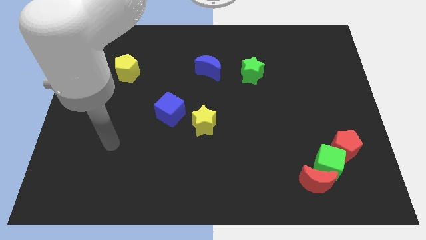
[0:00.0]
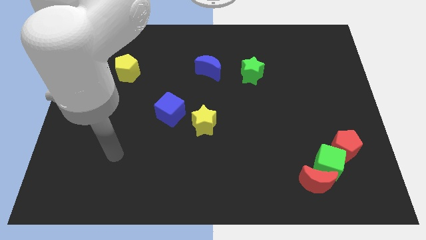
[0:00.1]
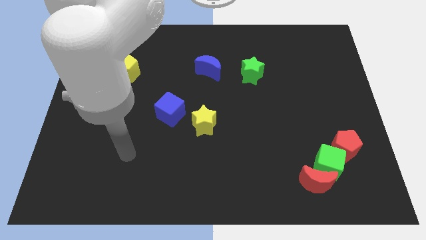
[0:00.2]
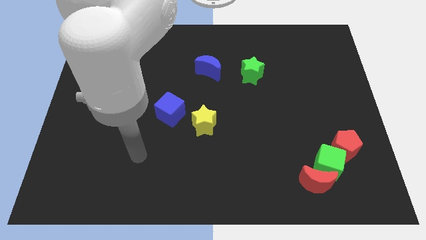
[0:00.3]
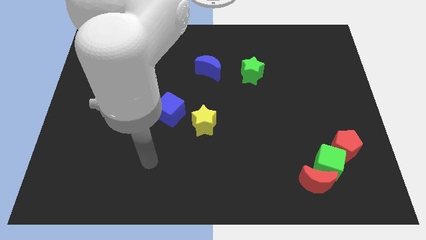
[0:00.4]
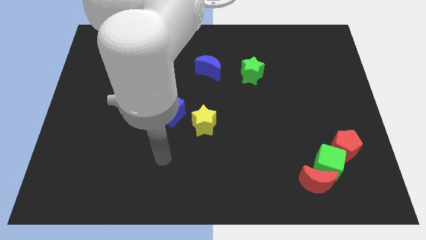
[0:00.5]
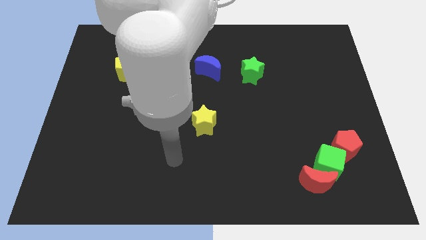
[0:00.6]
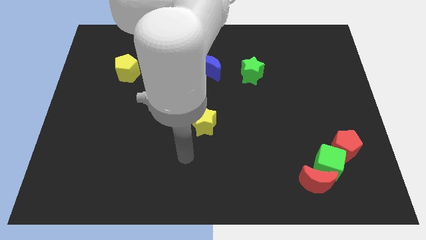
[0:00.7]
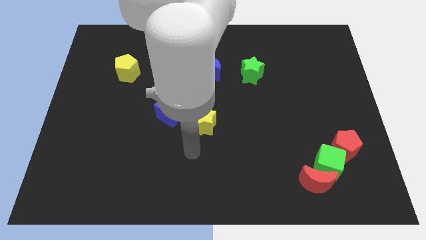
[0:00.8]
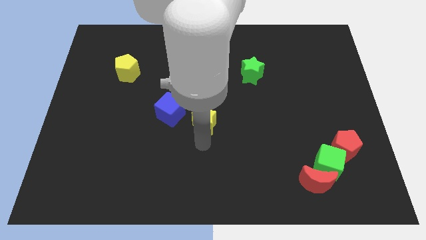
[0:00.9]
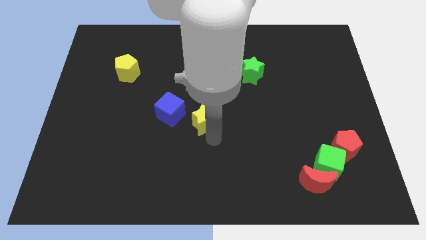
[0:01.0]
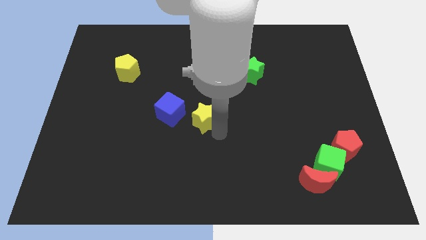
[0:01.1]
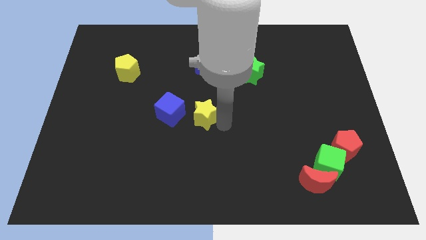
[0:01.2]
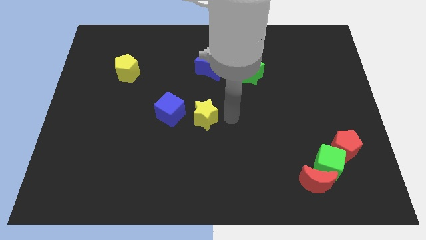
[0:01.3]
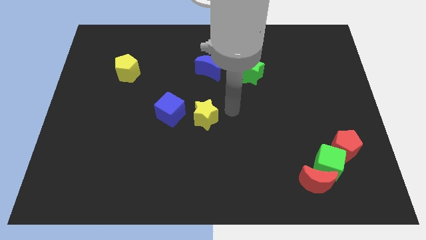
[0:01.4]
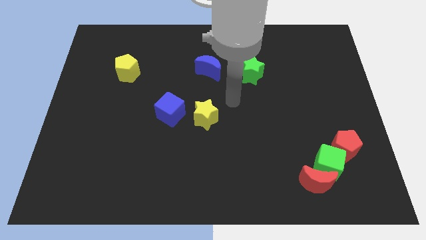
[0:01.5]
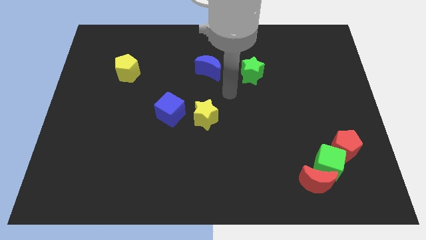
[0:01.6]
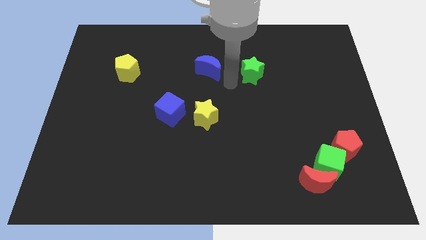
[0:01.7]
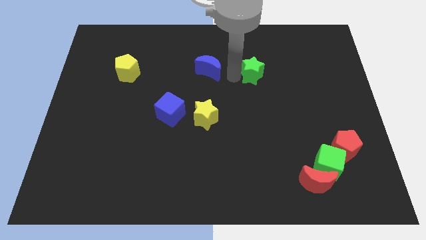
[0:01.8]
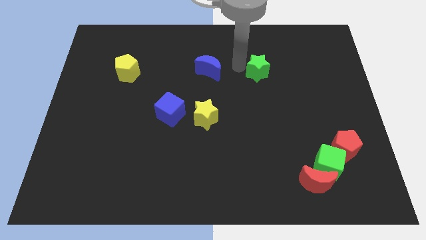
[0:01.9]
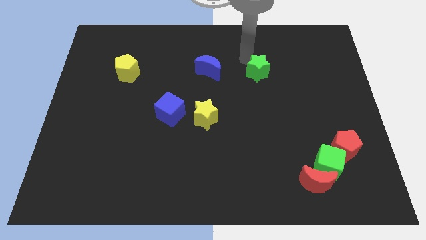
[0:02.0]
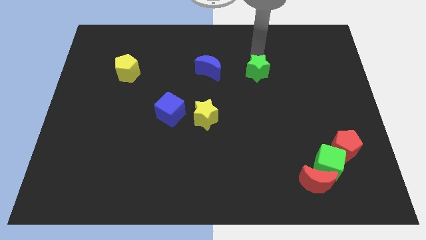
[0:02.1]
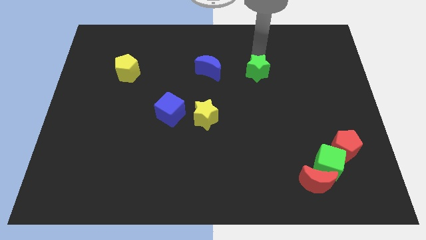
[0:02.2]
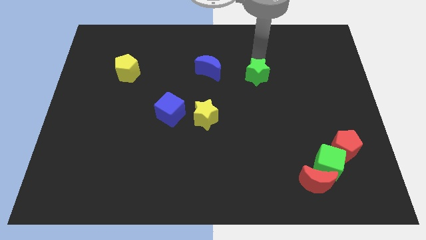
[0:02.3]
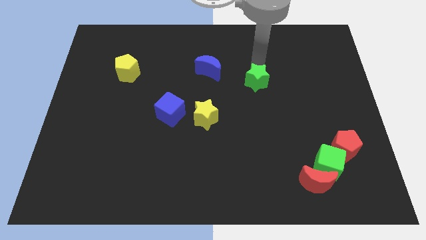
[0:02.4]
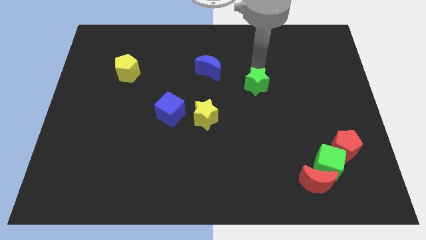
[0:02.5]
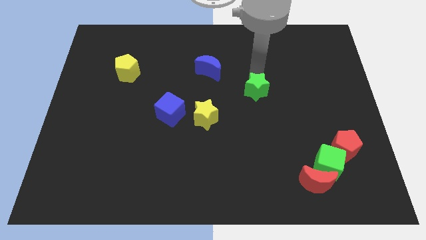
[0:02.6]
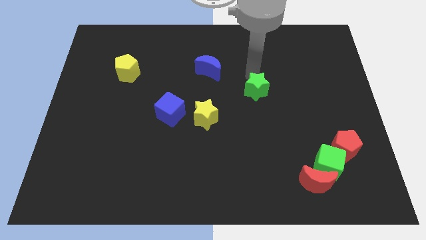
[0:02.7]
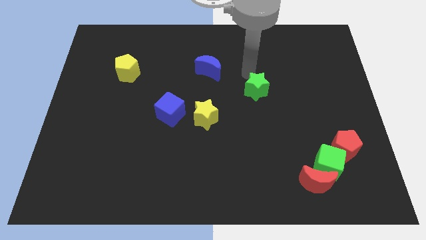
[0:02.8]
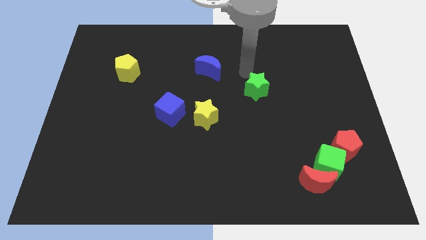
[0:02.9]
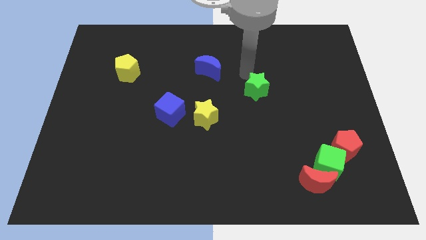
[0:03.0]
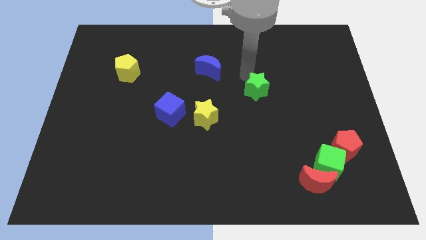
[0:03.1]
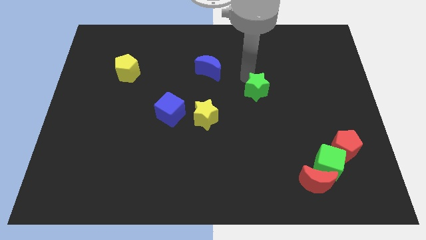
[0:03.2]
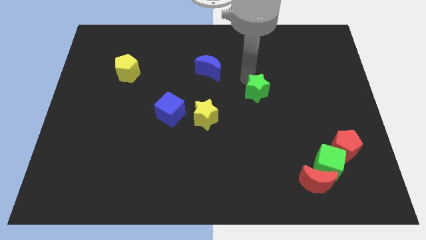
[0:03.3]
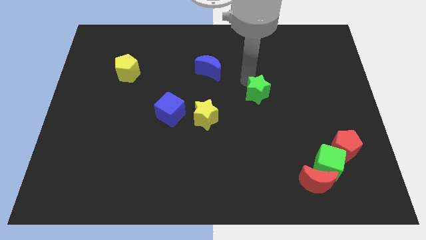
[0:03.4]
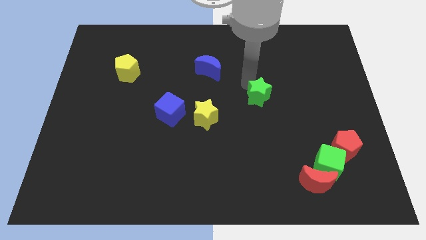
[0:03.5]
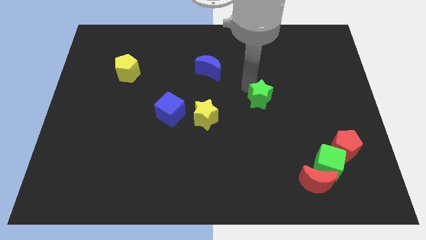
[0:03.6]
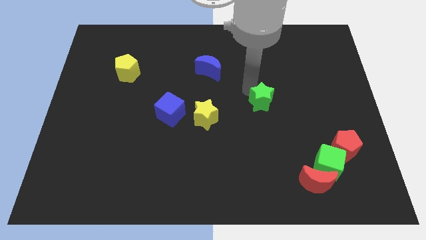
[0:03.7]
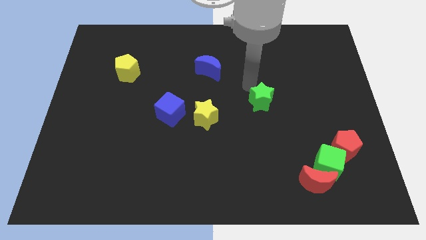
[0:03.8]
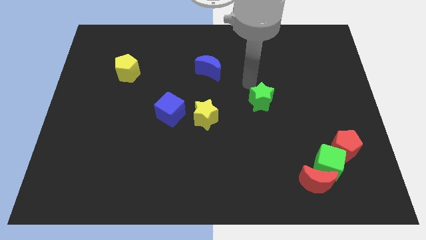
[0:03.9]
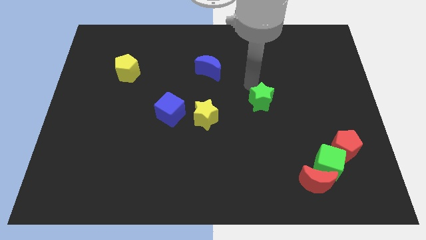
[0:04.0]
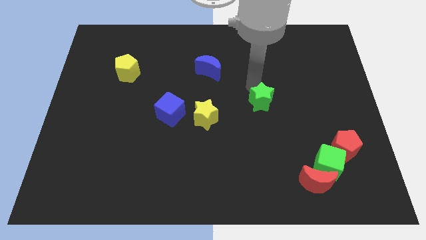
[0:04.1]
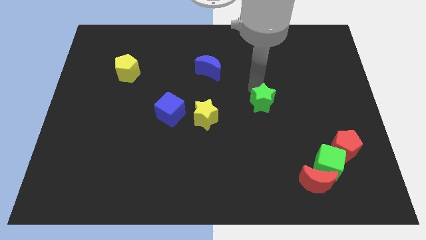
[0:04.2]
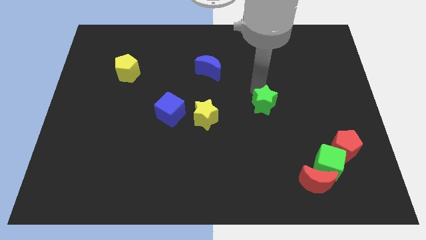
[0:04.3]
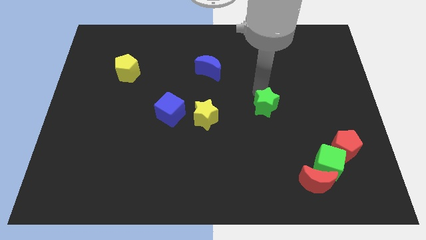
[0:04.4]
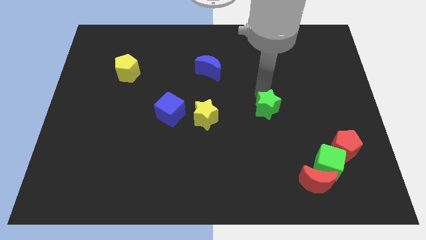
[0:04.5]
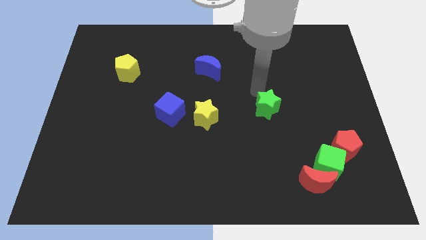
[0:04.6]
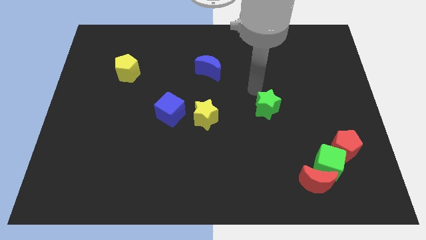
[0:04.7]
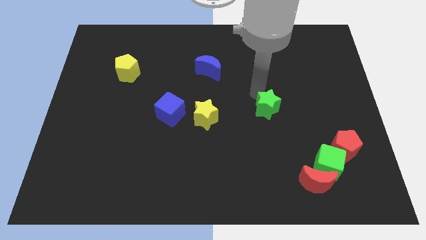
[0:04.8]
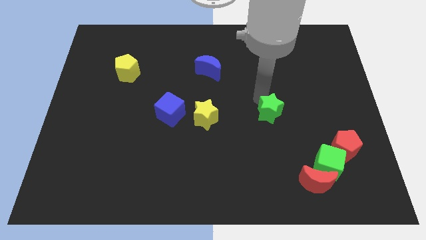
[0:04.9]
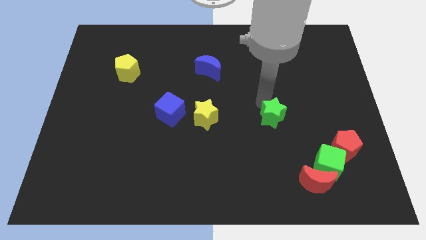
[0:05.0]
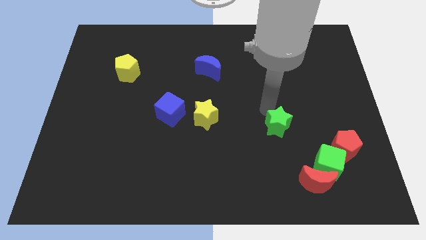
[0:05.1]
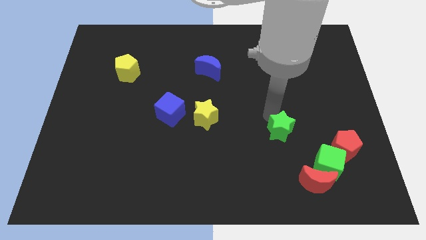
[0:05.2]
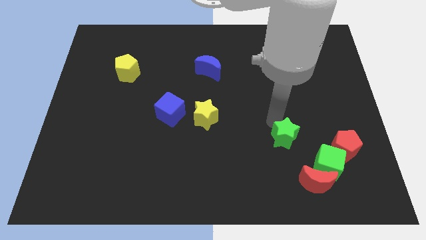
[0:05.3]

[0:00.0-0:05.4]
slide the green star left of the red pentagon

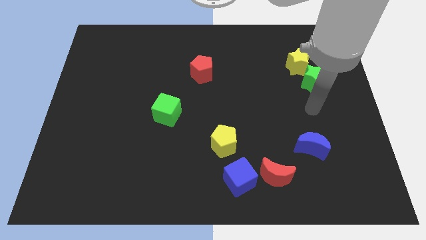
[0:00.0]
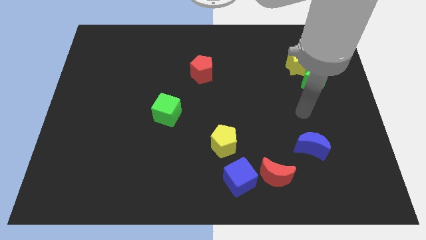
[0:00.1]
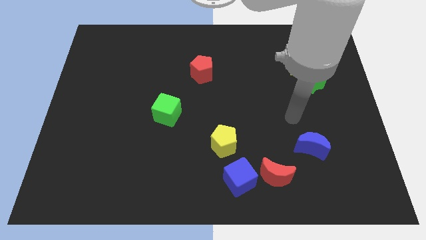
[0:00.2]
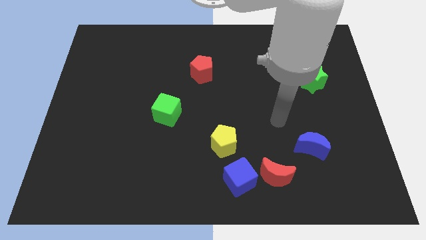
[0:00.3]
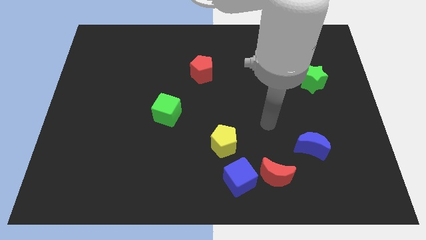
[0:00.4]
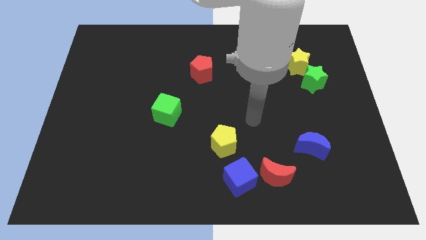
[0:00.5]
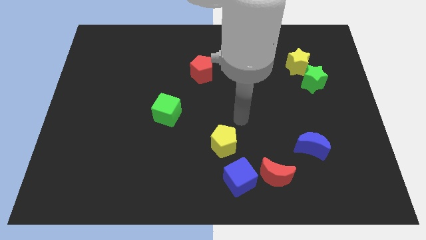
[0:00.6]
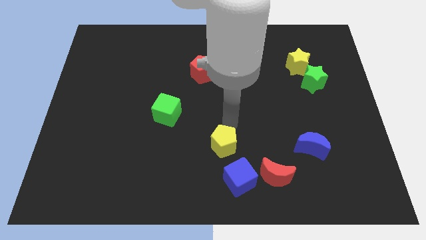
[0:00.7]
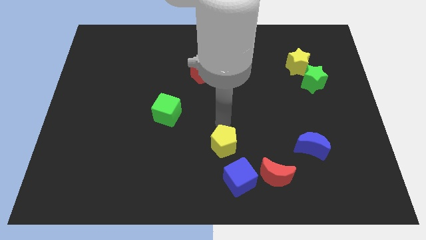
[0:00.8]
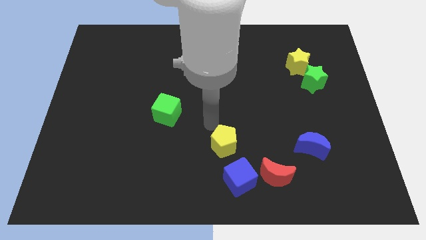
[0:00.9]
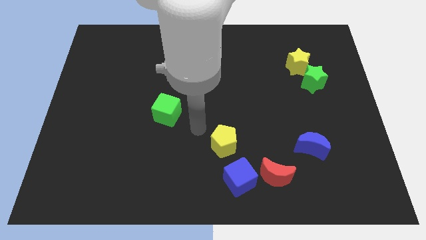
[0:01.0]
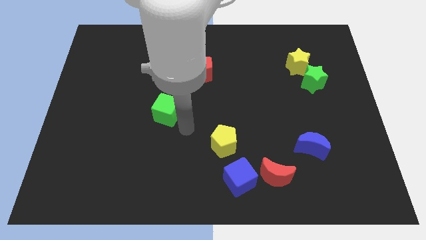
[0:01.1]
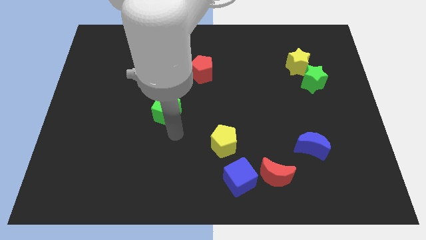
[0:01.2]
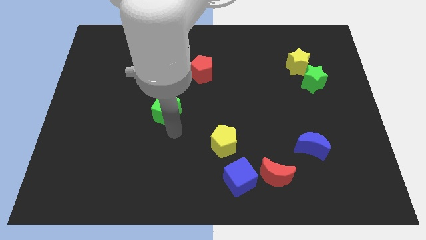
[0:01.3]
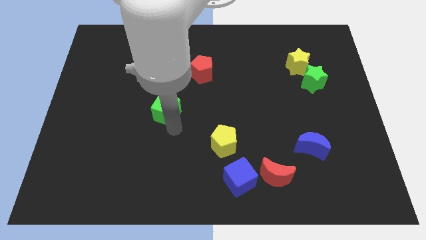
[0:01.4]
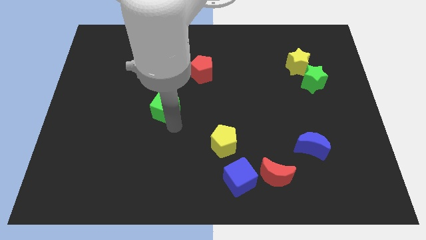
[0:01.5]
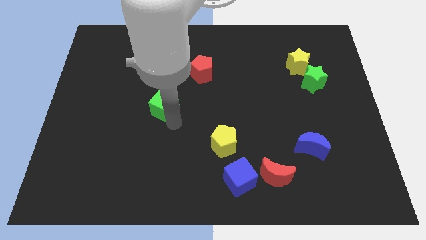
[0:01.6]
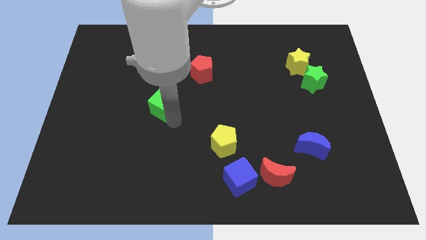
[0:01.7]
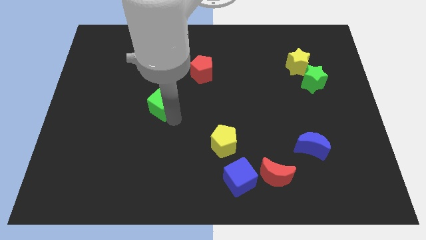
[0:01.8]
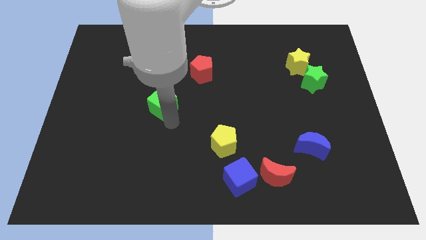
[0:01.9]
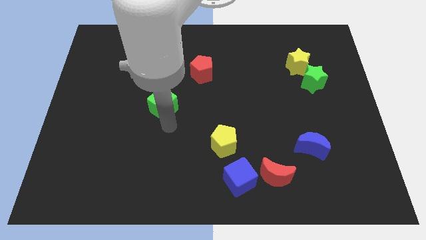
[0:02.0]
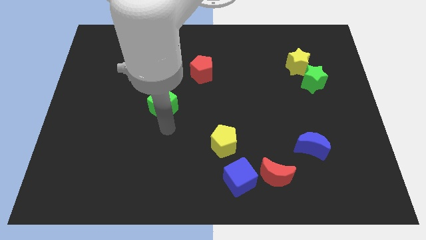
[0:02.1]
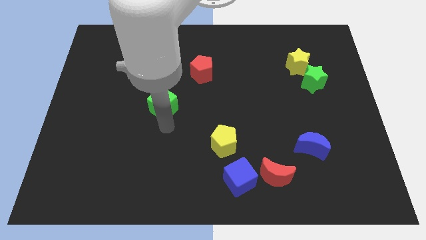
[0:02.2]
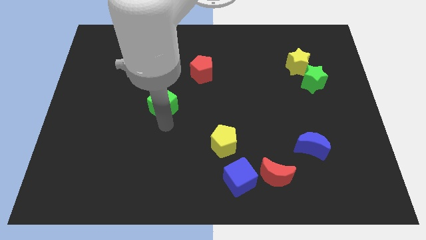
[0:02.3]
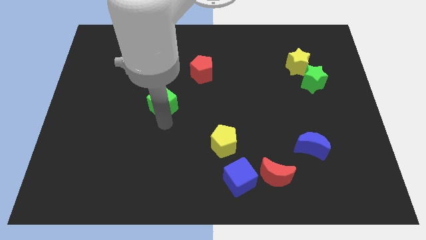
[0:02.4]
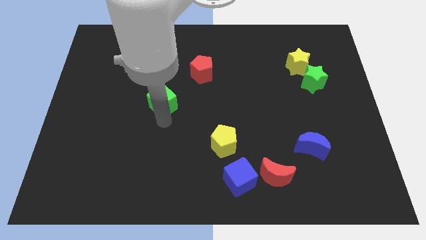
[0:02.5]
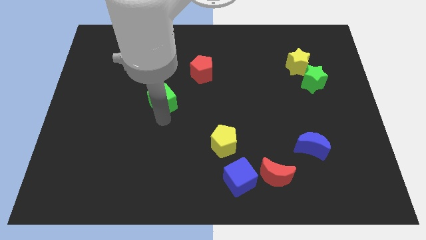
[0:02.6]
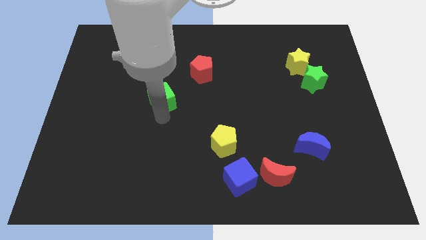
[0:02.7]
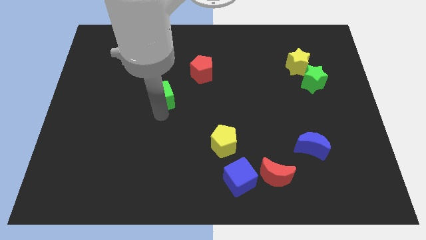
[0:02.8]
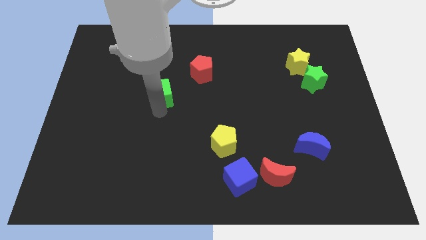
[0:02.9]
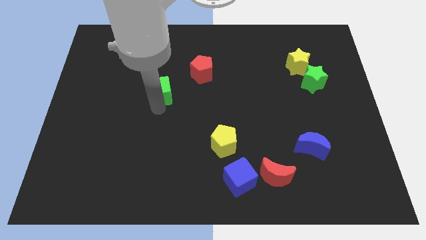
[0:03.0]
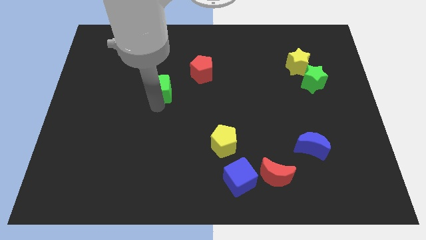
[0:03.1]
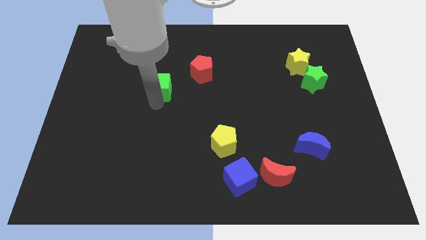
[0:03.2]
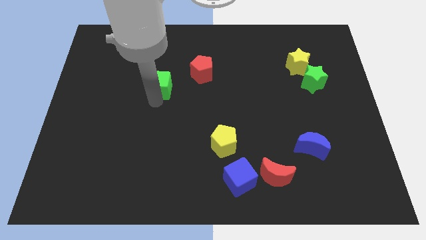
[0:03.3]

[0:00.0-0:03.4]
move the green cube just left of the red pentagon
